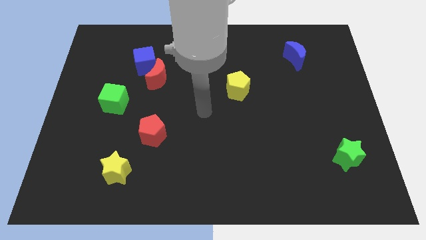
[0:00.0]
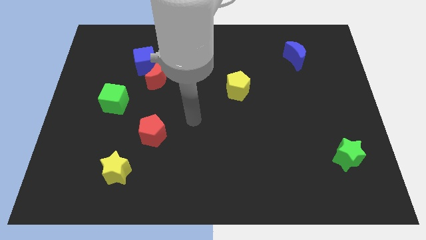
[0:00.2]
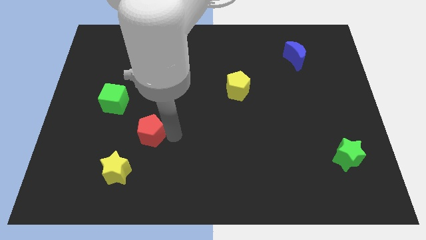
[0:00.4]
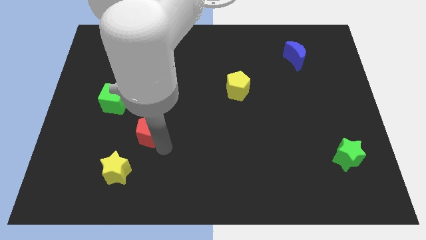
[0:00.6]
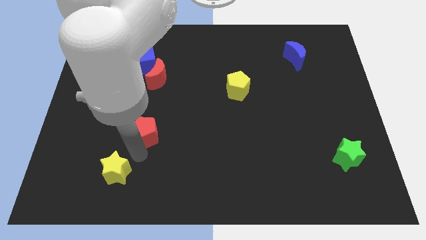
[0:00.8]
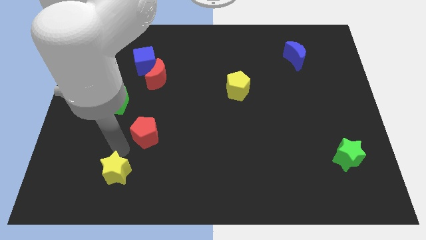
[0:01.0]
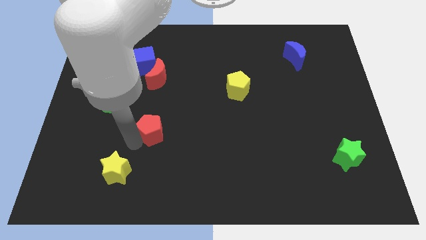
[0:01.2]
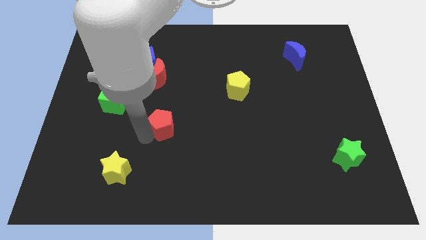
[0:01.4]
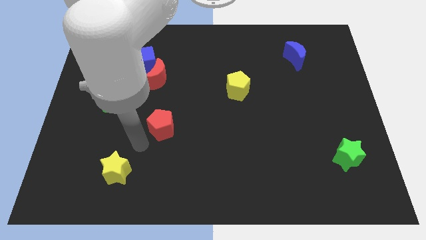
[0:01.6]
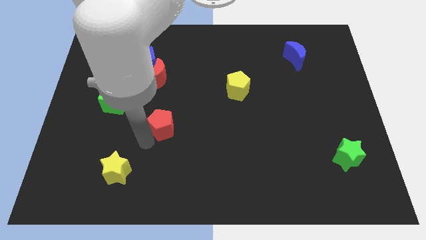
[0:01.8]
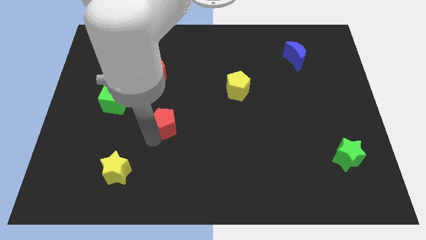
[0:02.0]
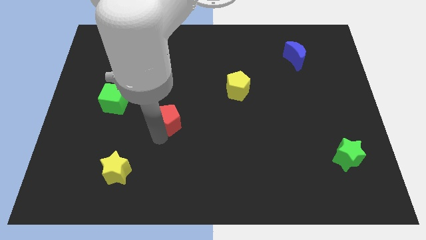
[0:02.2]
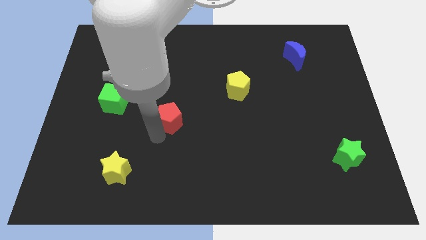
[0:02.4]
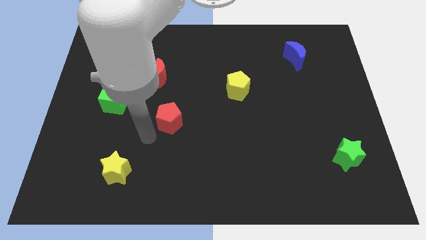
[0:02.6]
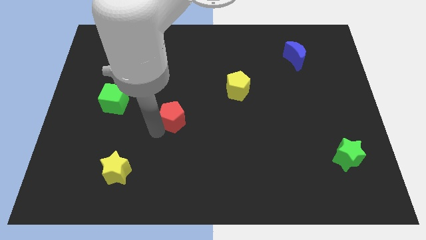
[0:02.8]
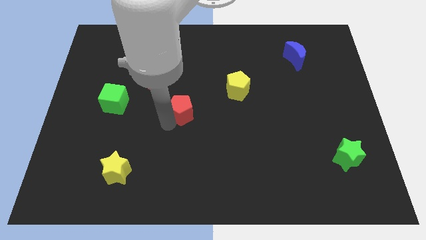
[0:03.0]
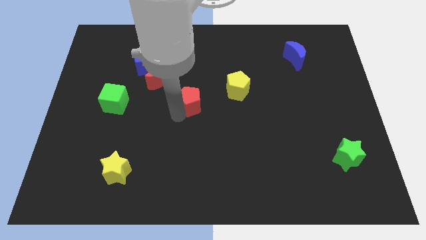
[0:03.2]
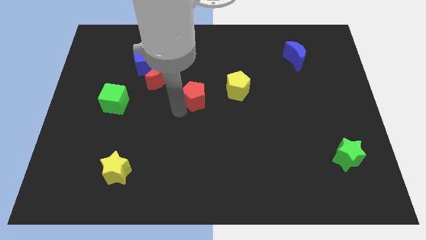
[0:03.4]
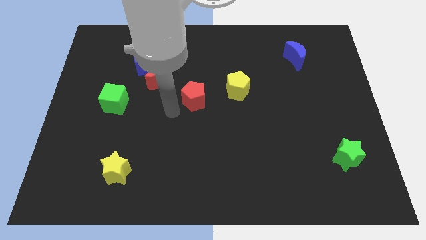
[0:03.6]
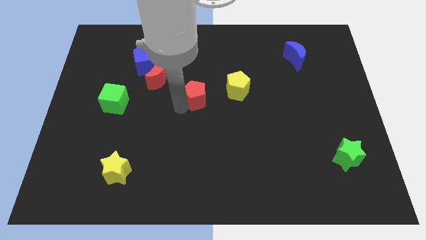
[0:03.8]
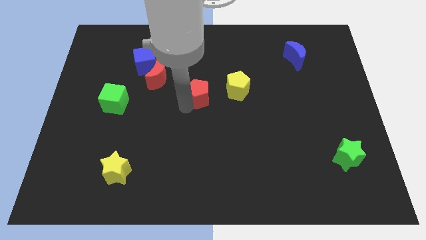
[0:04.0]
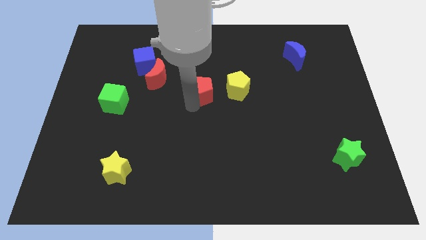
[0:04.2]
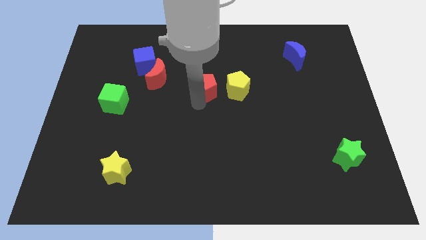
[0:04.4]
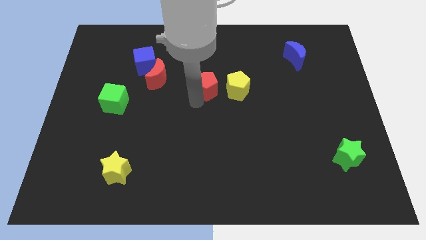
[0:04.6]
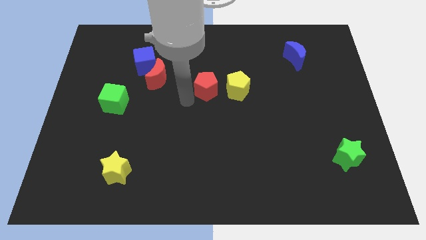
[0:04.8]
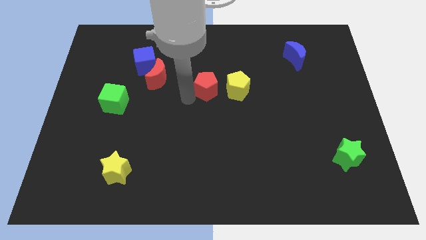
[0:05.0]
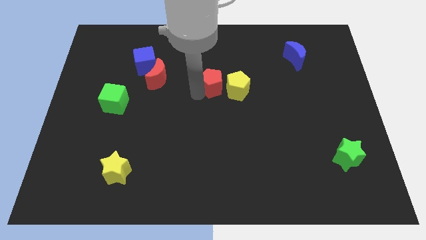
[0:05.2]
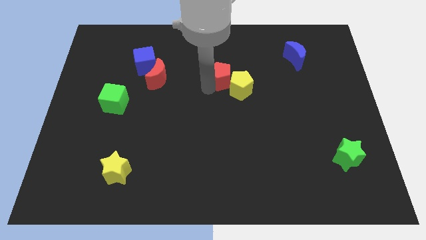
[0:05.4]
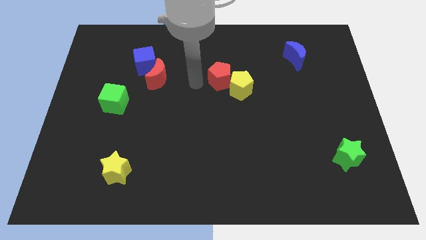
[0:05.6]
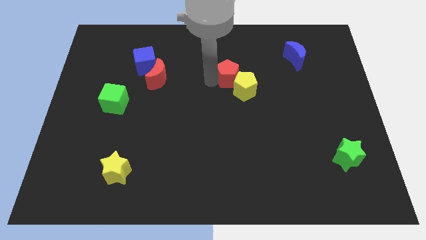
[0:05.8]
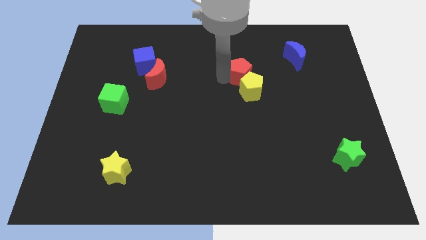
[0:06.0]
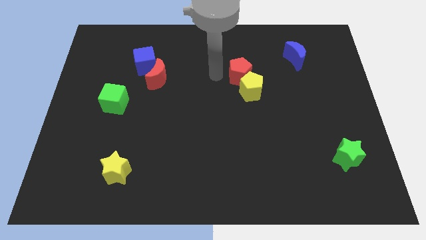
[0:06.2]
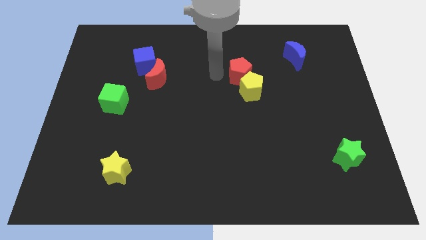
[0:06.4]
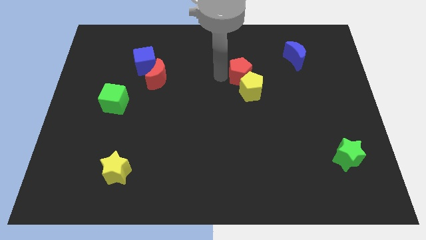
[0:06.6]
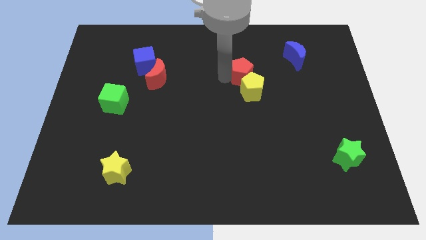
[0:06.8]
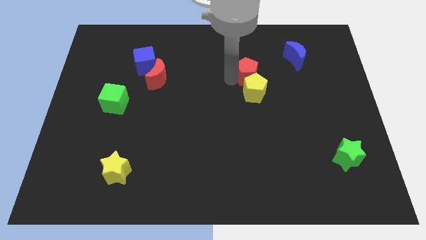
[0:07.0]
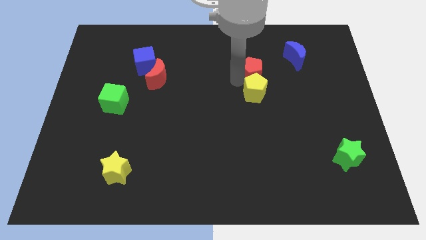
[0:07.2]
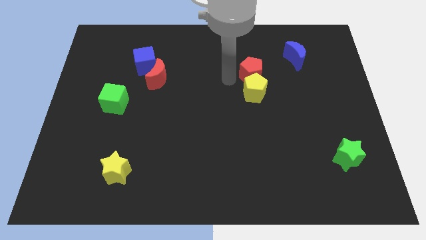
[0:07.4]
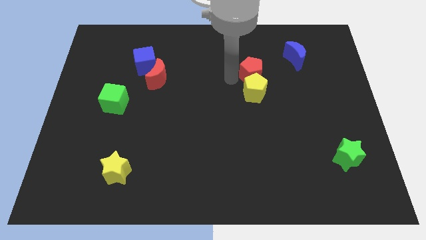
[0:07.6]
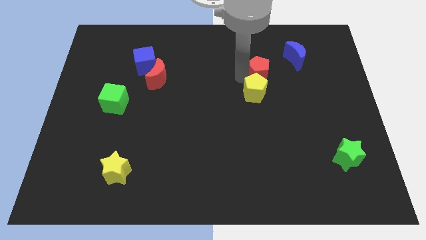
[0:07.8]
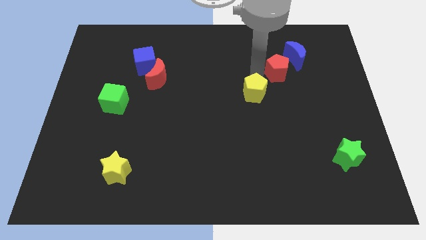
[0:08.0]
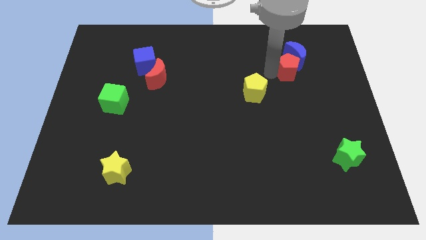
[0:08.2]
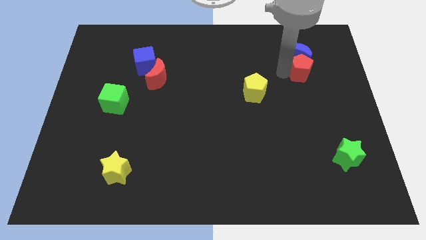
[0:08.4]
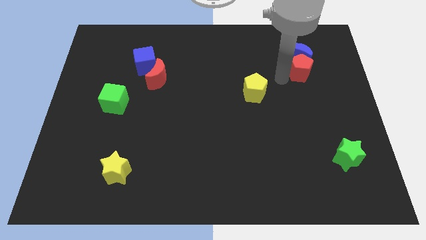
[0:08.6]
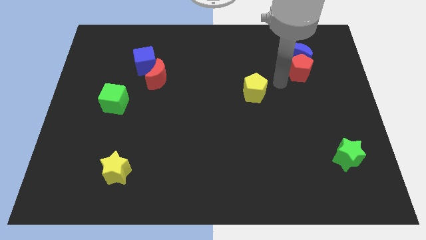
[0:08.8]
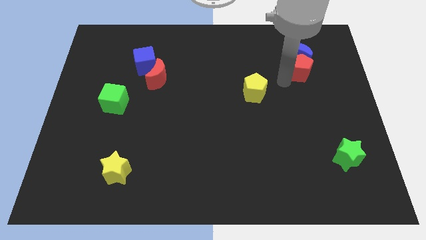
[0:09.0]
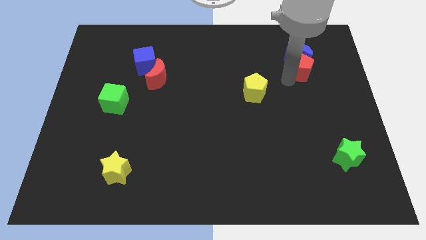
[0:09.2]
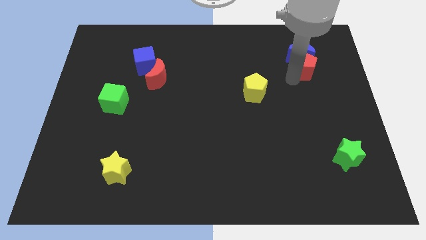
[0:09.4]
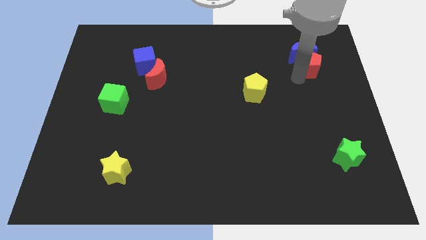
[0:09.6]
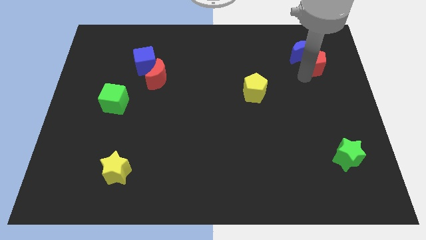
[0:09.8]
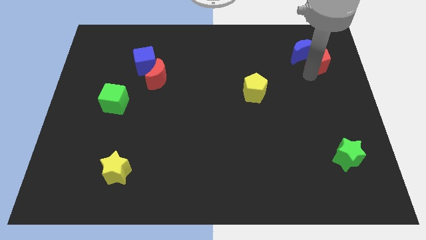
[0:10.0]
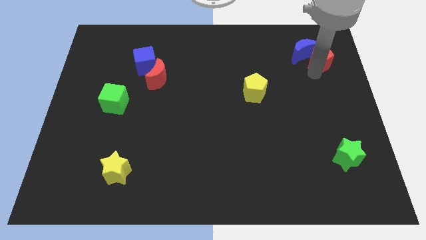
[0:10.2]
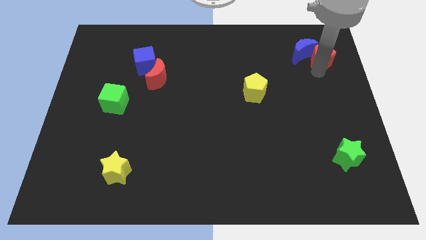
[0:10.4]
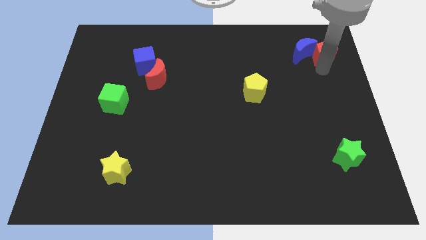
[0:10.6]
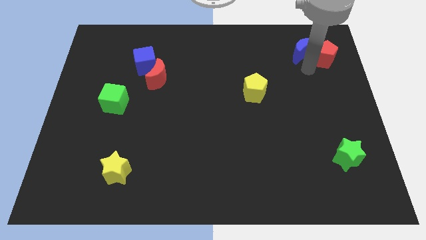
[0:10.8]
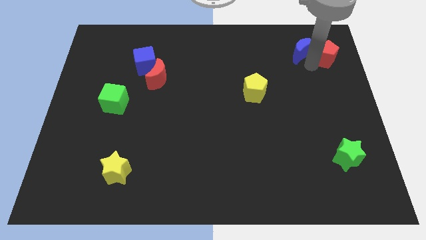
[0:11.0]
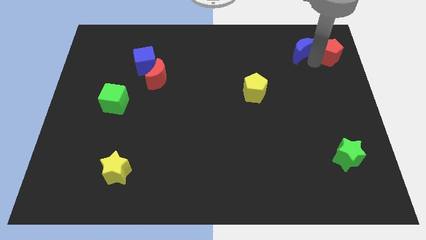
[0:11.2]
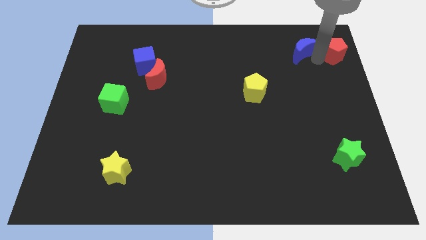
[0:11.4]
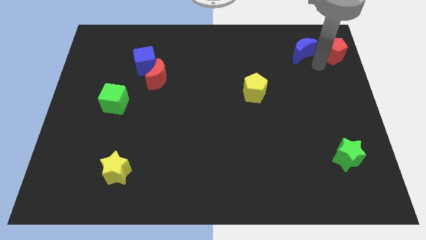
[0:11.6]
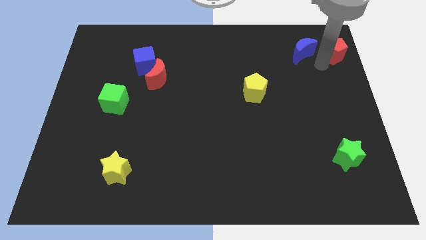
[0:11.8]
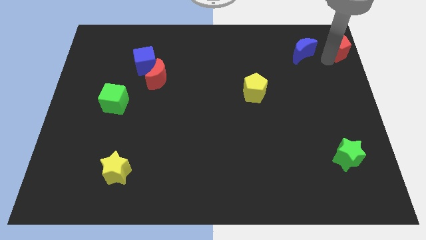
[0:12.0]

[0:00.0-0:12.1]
put the red pentagon to the upper right corner

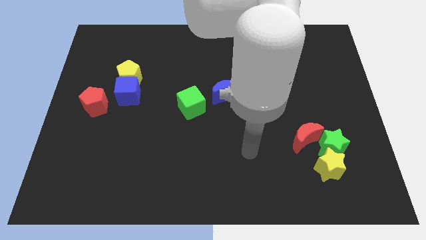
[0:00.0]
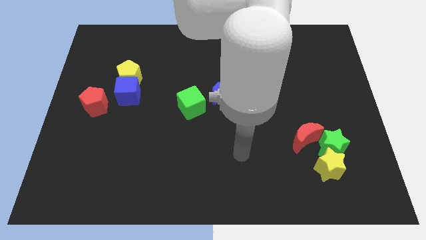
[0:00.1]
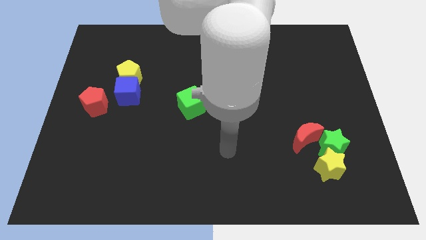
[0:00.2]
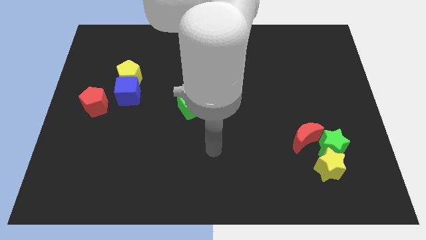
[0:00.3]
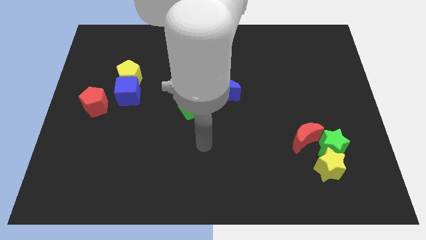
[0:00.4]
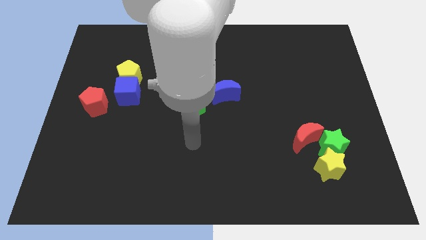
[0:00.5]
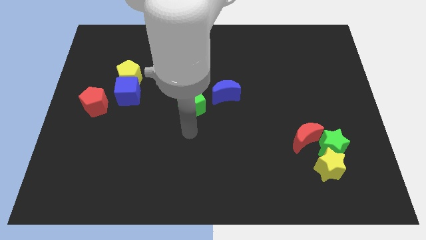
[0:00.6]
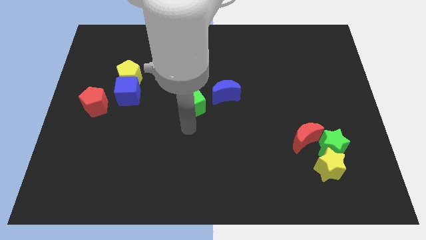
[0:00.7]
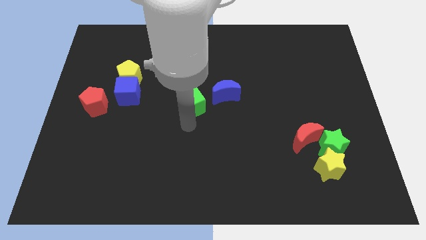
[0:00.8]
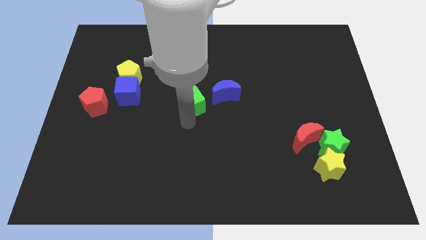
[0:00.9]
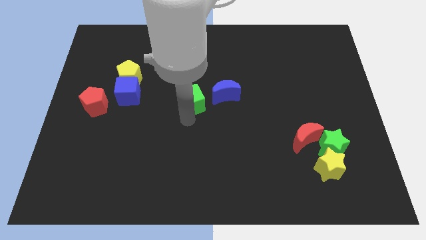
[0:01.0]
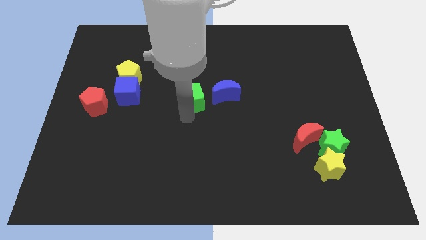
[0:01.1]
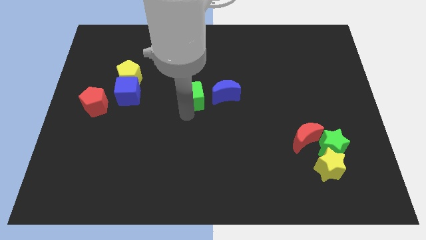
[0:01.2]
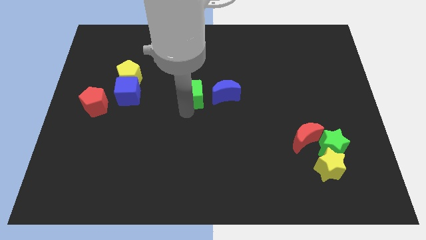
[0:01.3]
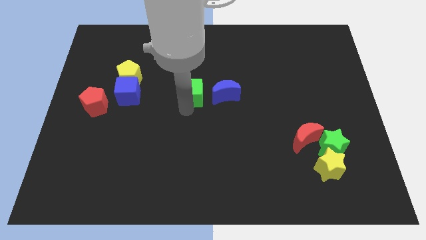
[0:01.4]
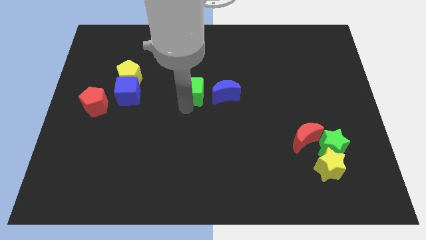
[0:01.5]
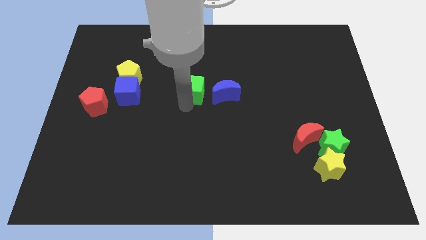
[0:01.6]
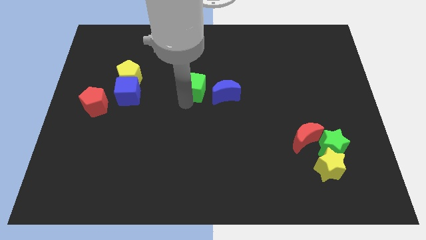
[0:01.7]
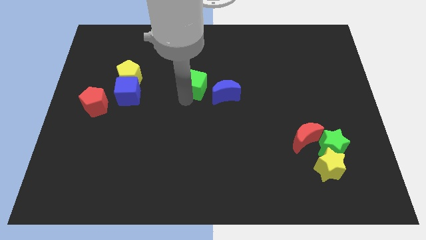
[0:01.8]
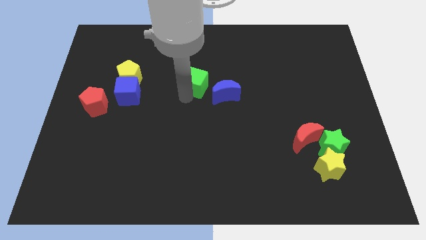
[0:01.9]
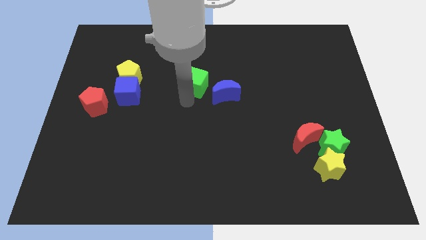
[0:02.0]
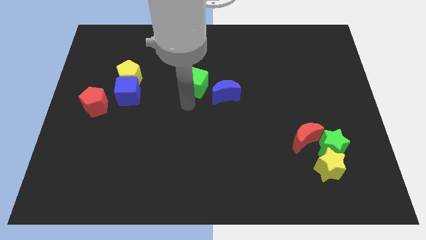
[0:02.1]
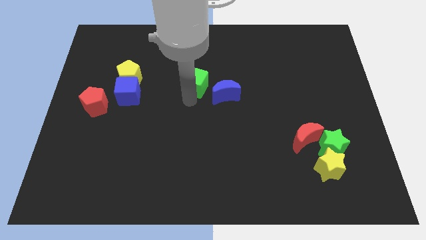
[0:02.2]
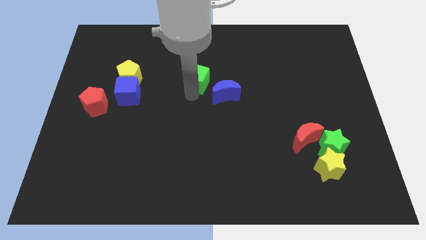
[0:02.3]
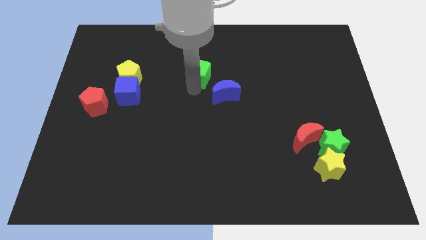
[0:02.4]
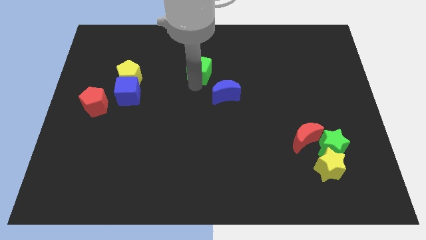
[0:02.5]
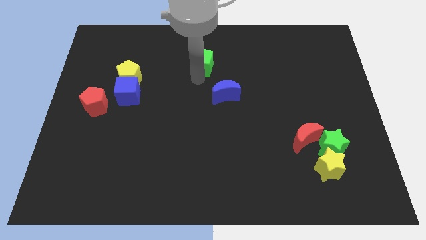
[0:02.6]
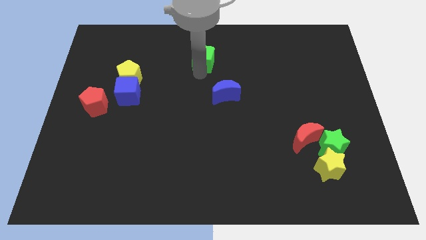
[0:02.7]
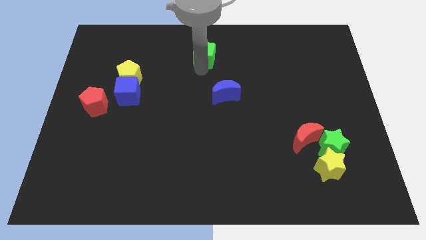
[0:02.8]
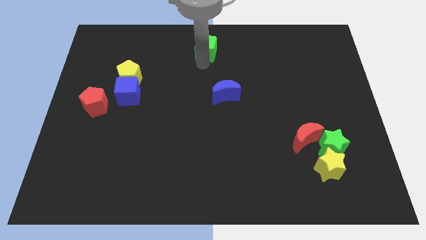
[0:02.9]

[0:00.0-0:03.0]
put the green cube to the towards your base
